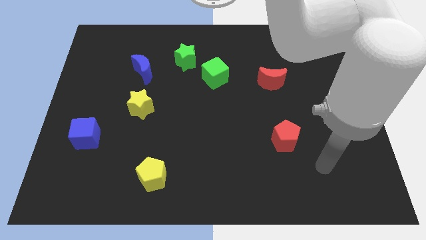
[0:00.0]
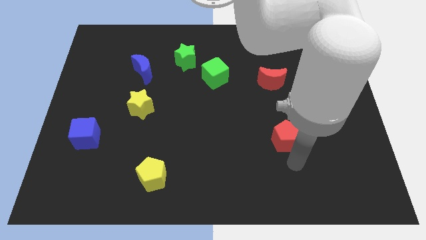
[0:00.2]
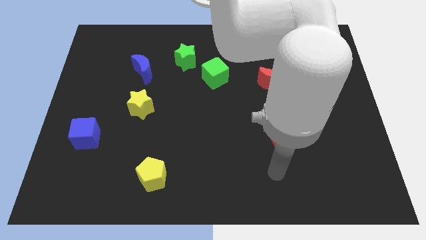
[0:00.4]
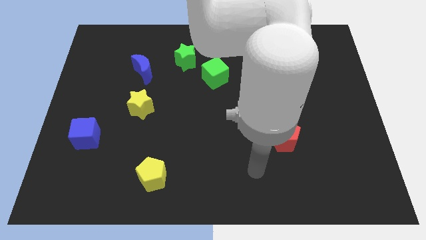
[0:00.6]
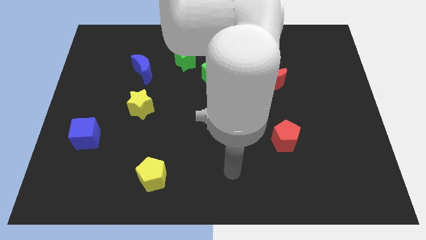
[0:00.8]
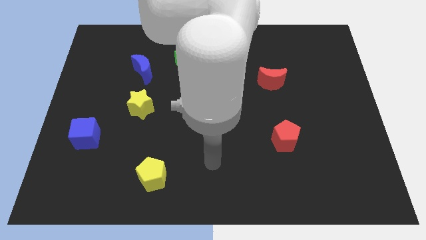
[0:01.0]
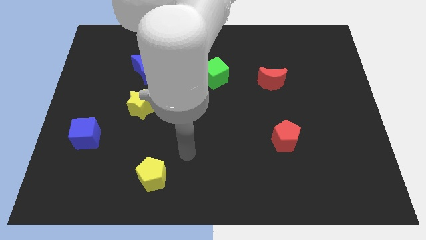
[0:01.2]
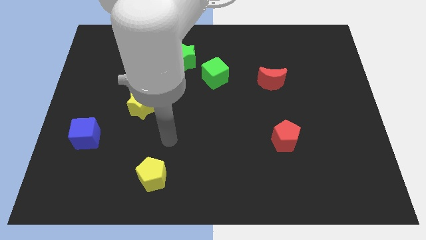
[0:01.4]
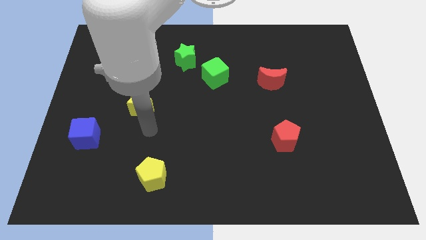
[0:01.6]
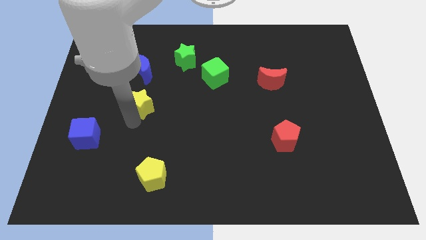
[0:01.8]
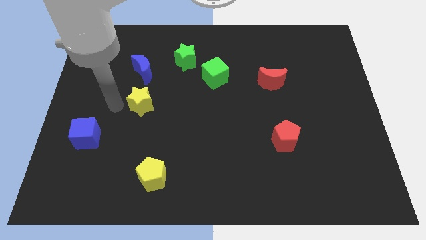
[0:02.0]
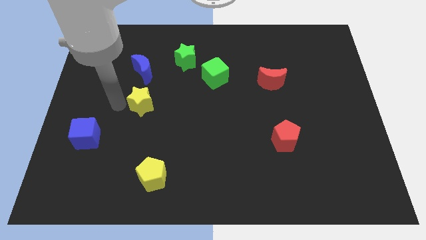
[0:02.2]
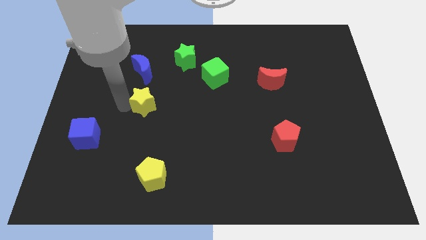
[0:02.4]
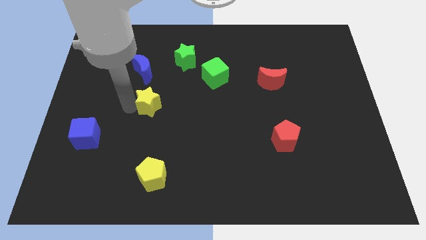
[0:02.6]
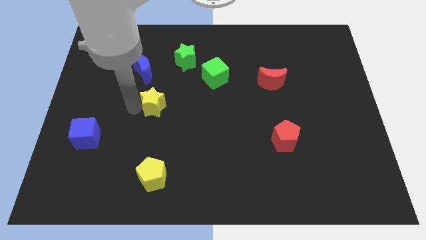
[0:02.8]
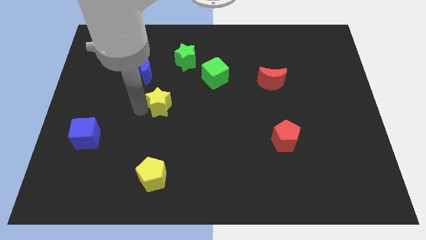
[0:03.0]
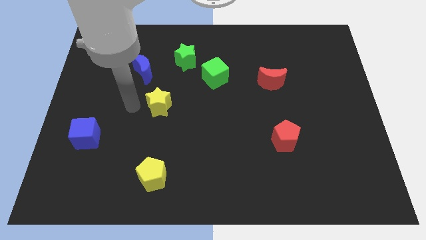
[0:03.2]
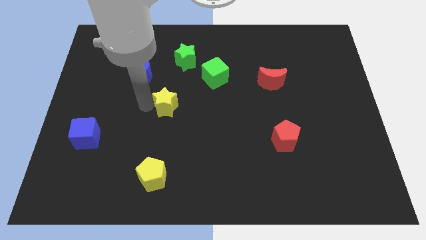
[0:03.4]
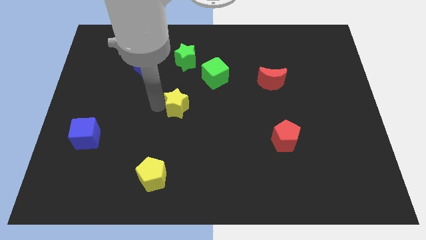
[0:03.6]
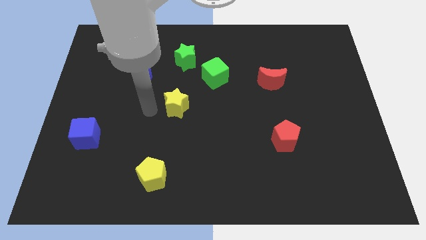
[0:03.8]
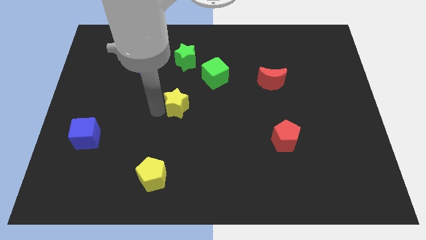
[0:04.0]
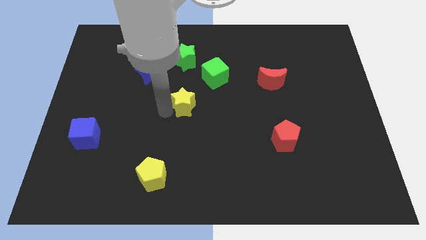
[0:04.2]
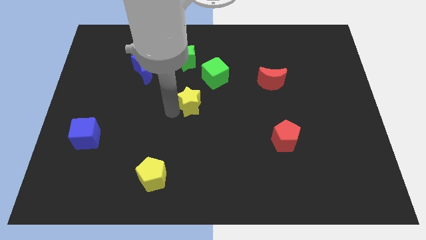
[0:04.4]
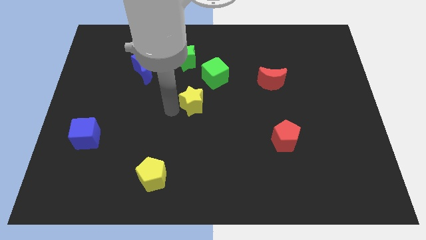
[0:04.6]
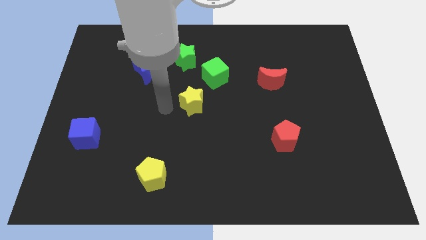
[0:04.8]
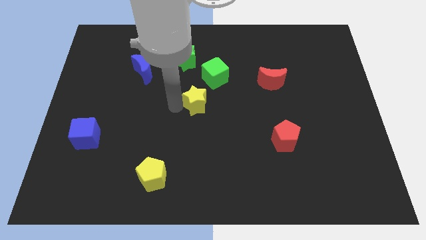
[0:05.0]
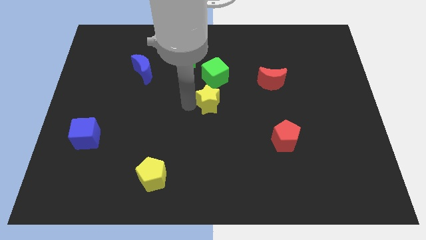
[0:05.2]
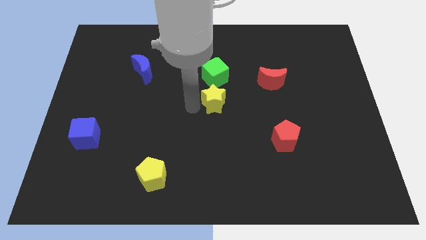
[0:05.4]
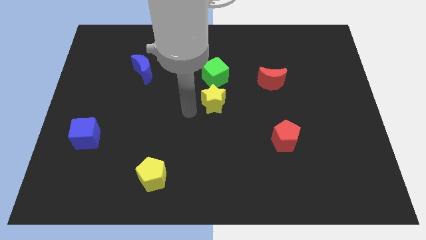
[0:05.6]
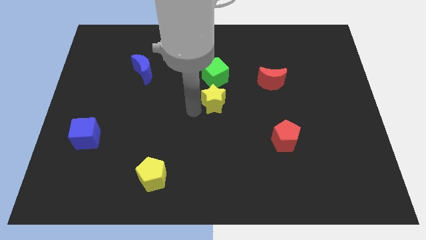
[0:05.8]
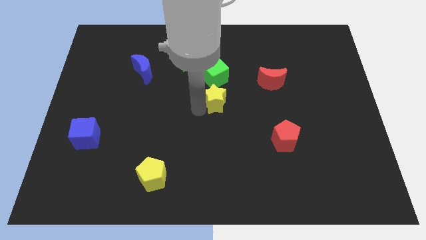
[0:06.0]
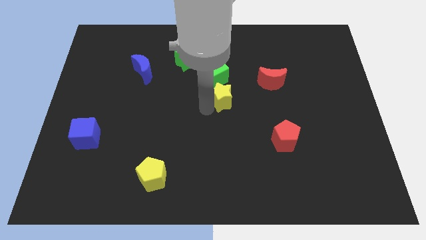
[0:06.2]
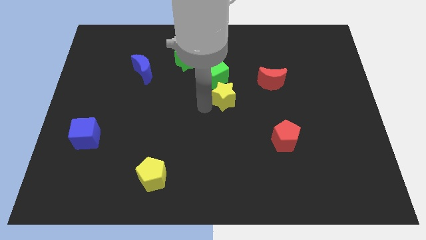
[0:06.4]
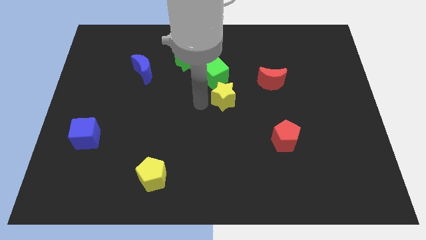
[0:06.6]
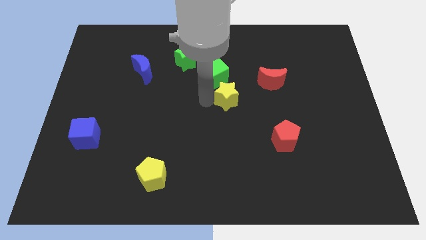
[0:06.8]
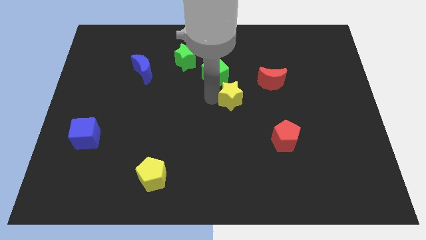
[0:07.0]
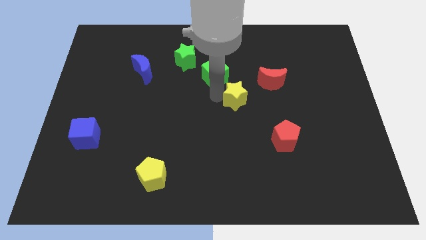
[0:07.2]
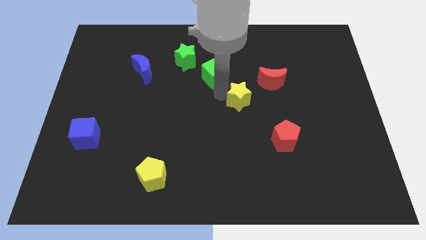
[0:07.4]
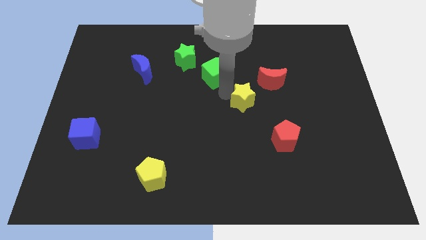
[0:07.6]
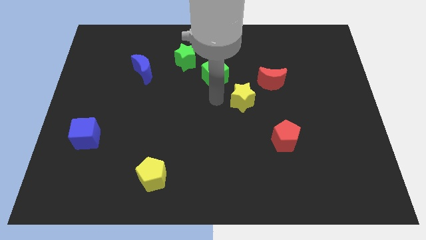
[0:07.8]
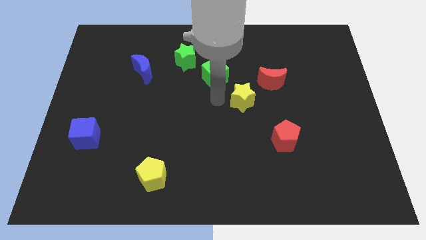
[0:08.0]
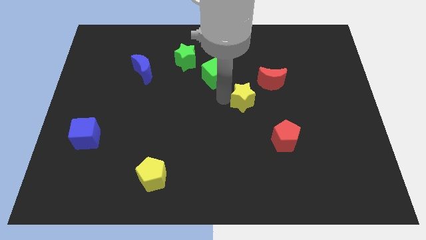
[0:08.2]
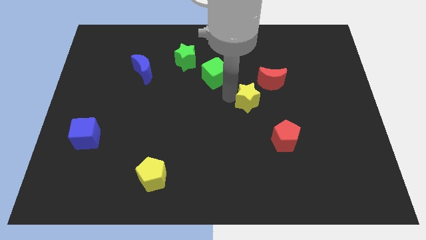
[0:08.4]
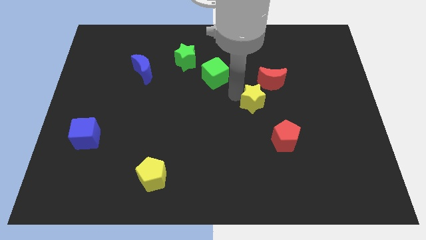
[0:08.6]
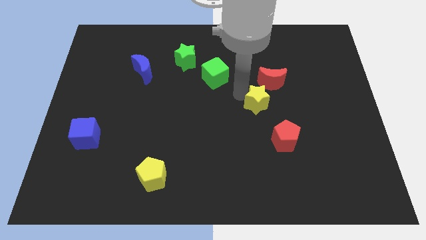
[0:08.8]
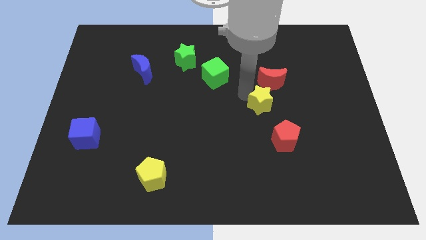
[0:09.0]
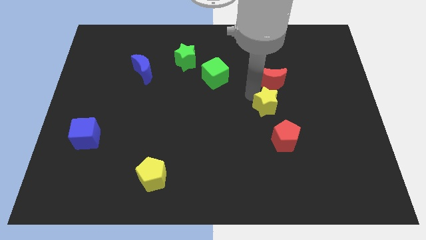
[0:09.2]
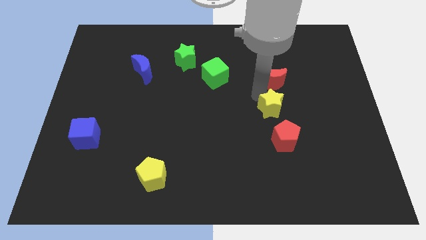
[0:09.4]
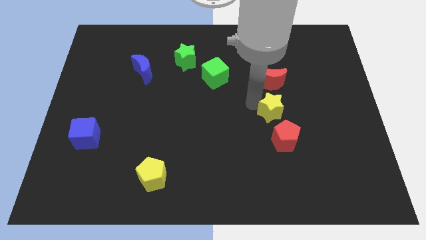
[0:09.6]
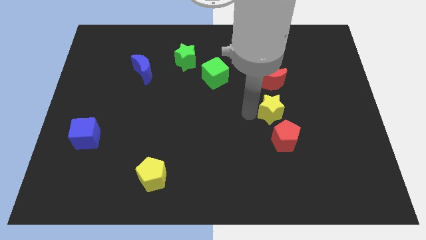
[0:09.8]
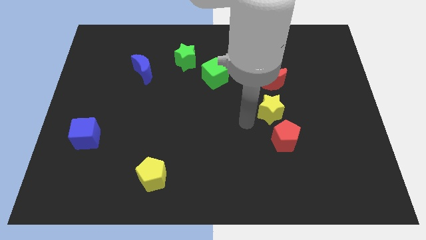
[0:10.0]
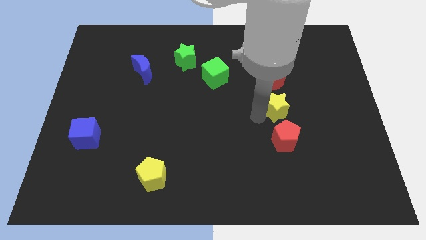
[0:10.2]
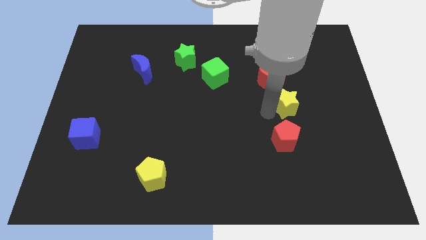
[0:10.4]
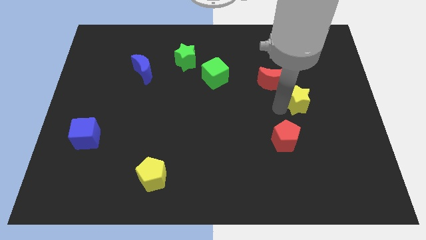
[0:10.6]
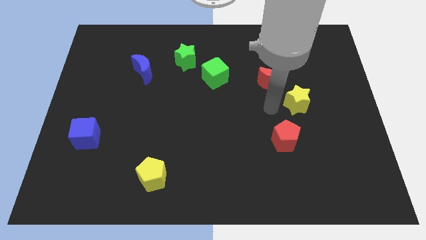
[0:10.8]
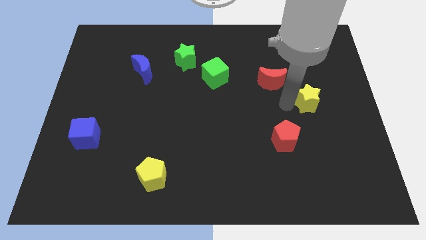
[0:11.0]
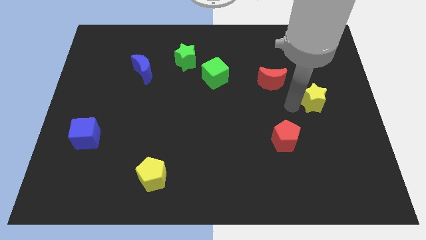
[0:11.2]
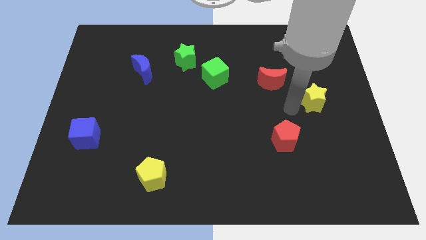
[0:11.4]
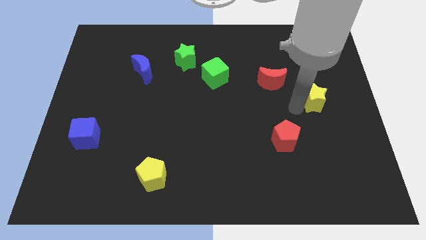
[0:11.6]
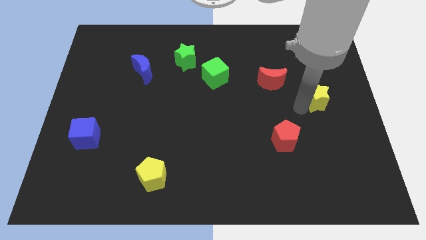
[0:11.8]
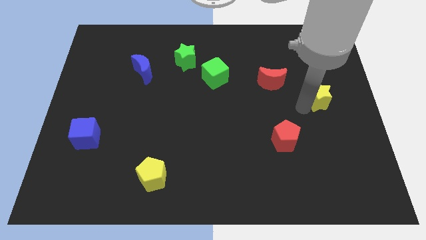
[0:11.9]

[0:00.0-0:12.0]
put the yellow star to the right side
